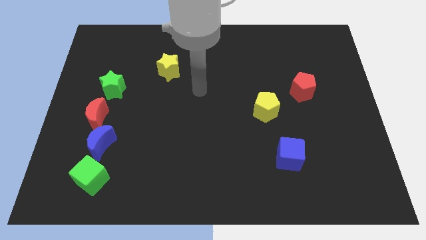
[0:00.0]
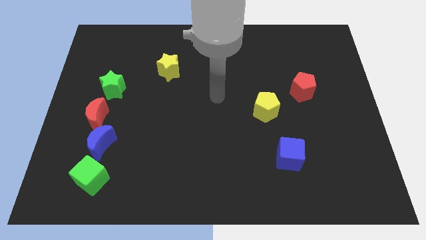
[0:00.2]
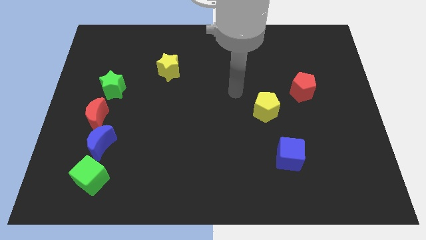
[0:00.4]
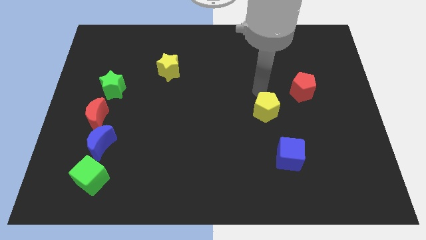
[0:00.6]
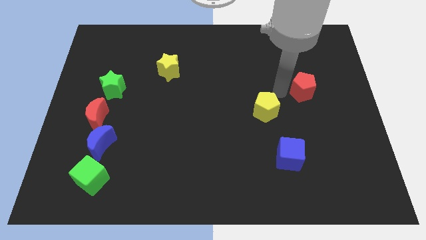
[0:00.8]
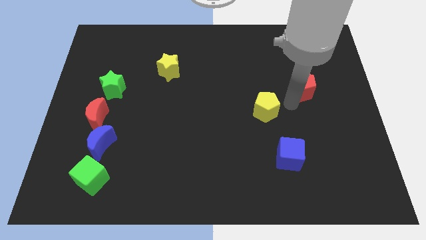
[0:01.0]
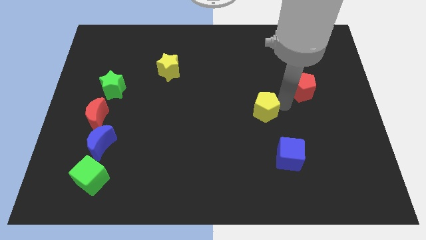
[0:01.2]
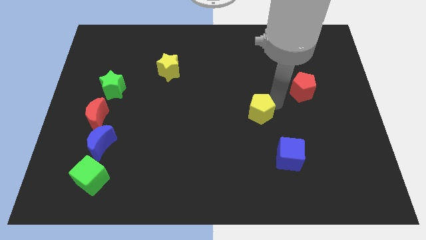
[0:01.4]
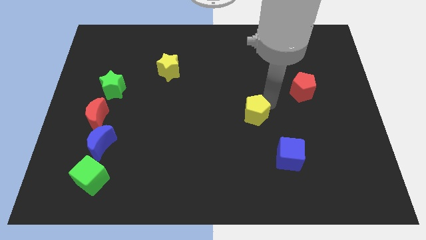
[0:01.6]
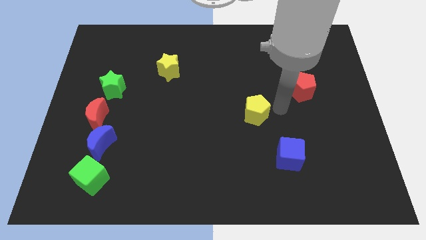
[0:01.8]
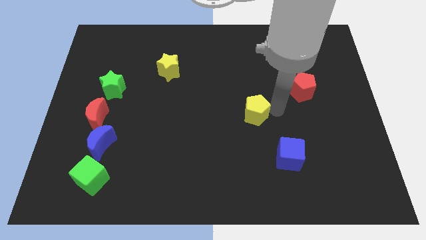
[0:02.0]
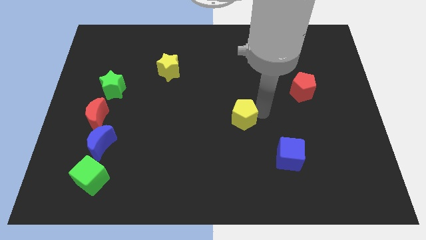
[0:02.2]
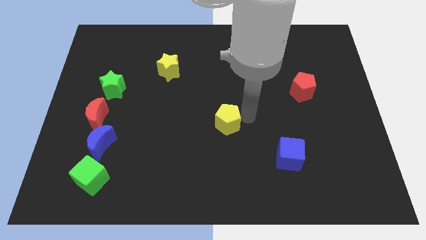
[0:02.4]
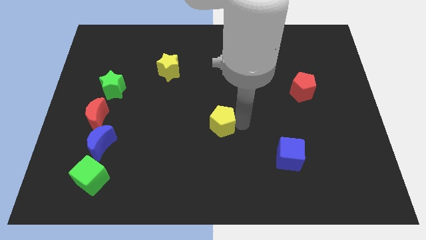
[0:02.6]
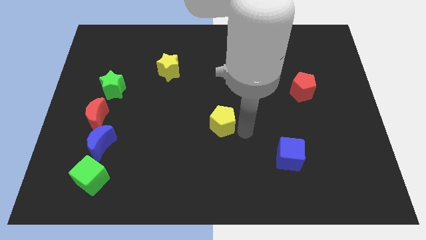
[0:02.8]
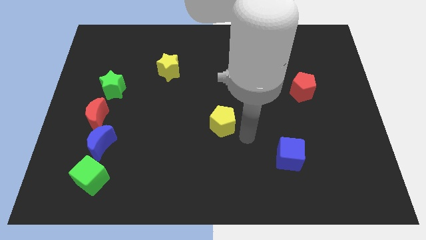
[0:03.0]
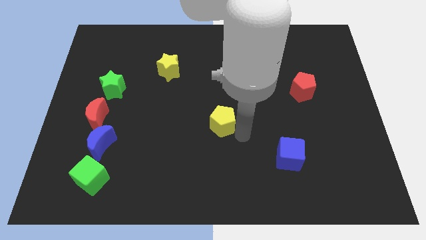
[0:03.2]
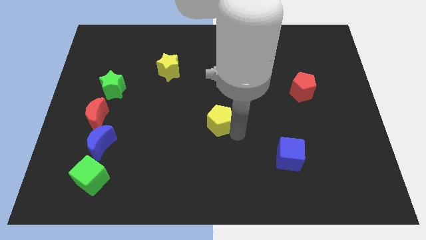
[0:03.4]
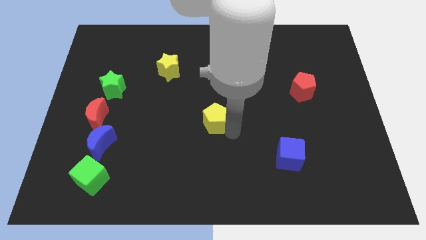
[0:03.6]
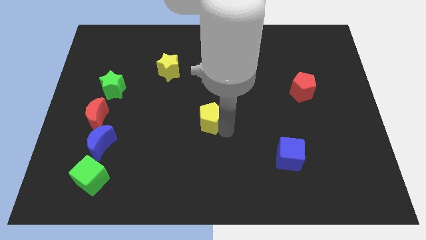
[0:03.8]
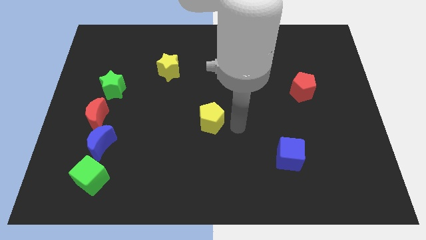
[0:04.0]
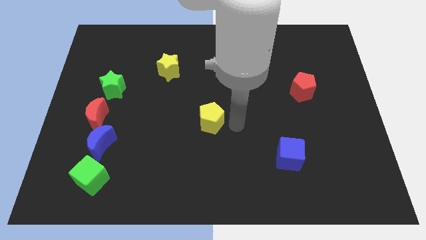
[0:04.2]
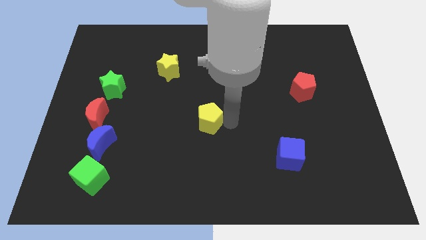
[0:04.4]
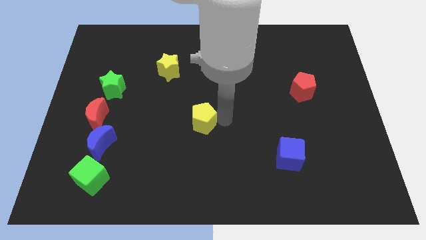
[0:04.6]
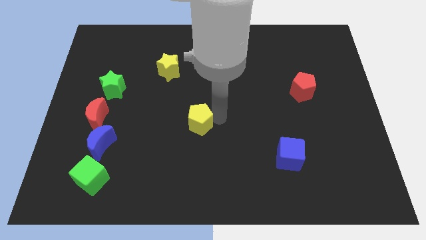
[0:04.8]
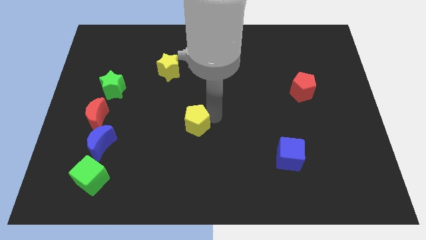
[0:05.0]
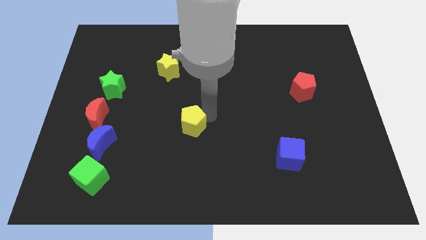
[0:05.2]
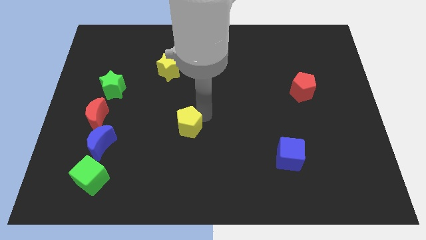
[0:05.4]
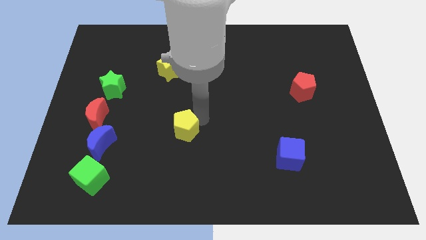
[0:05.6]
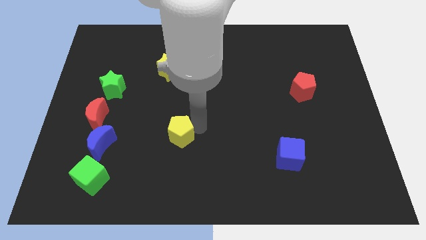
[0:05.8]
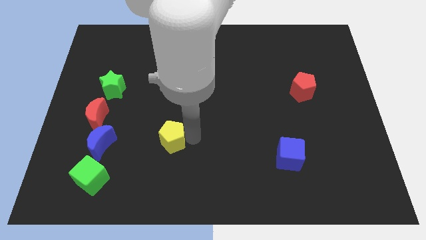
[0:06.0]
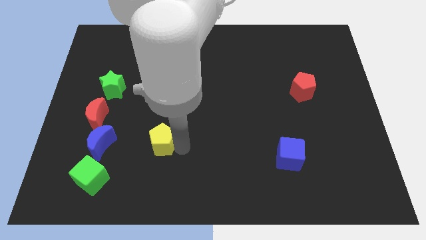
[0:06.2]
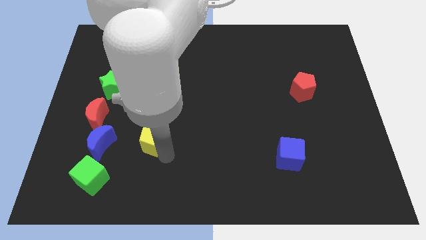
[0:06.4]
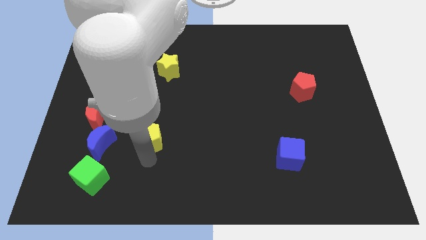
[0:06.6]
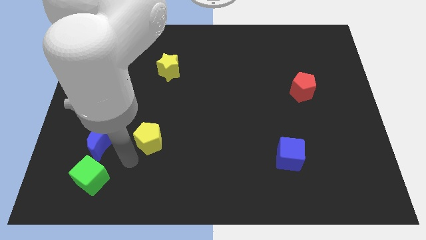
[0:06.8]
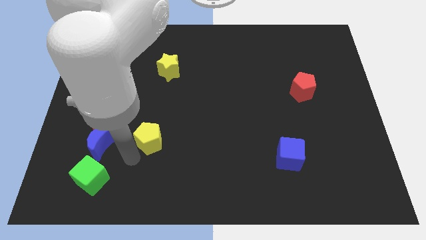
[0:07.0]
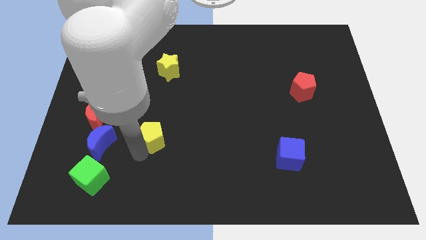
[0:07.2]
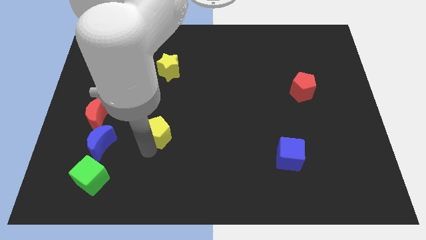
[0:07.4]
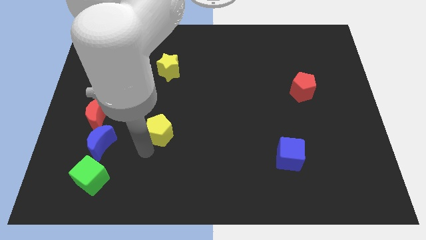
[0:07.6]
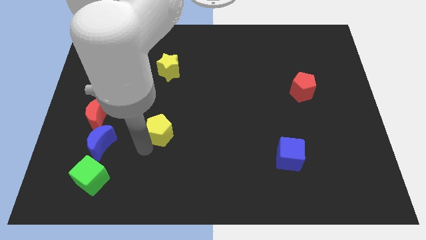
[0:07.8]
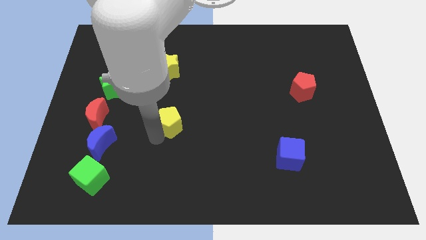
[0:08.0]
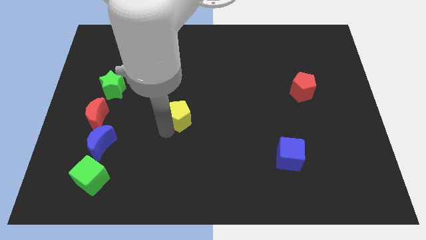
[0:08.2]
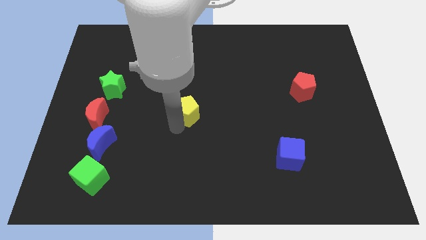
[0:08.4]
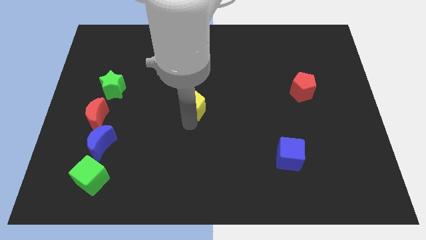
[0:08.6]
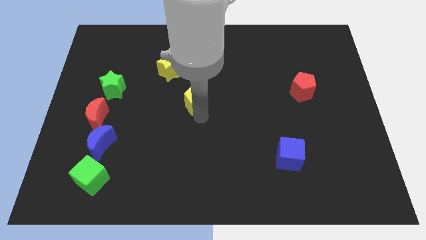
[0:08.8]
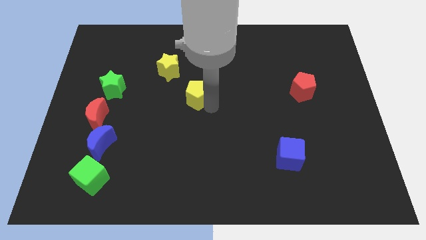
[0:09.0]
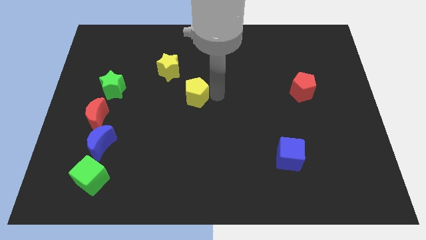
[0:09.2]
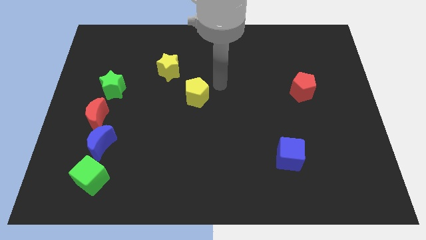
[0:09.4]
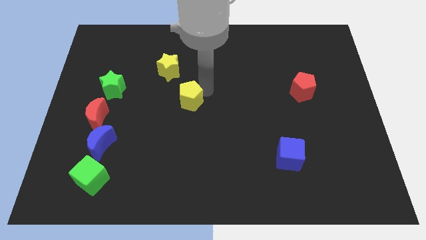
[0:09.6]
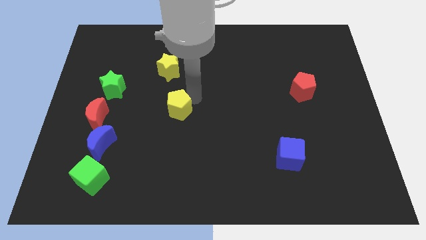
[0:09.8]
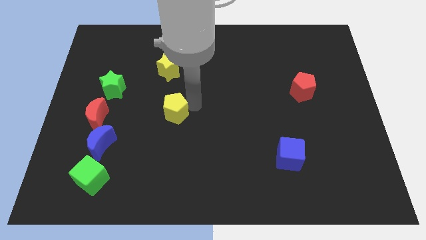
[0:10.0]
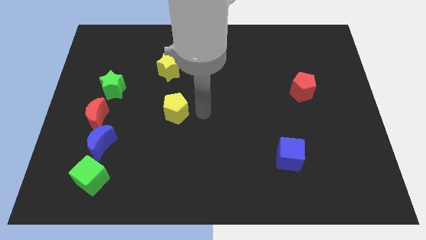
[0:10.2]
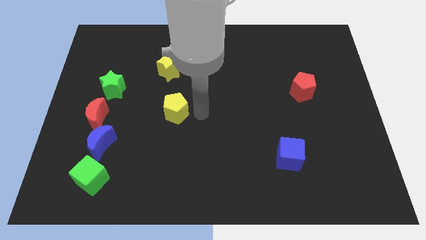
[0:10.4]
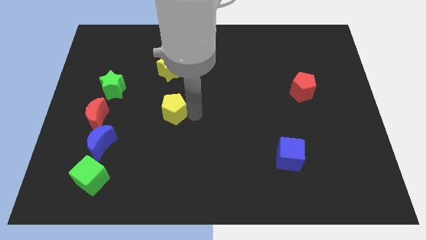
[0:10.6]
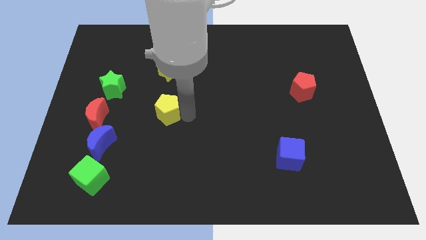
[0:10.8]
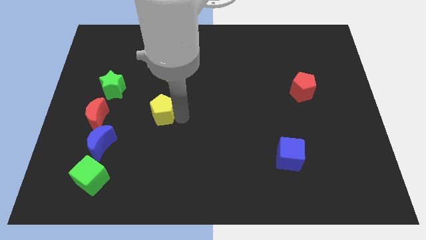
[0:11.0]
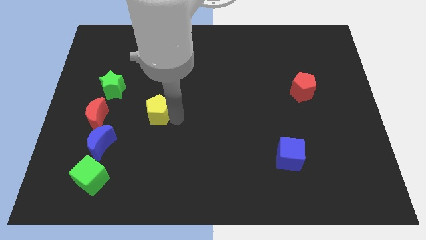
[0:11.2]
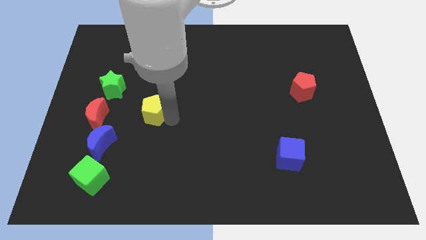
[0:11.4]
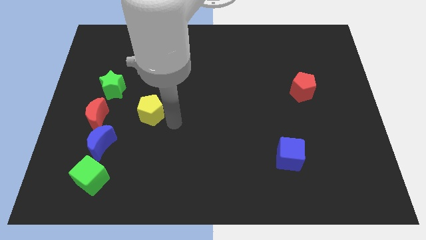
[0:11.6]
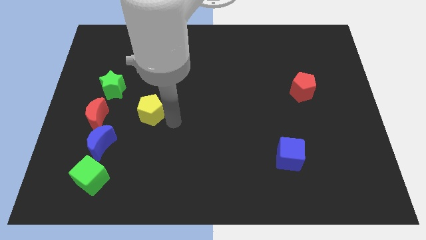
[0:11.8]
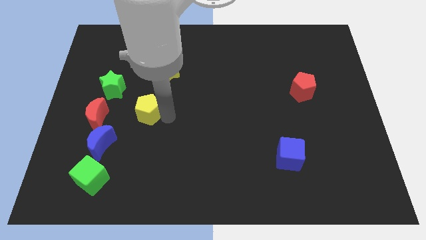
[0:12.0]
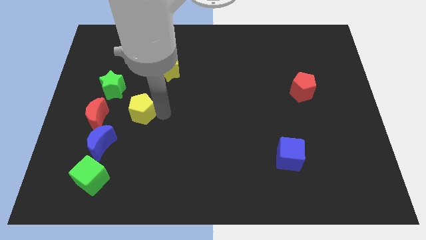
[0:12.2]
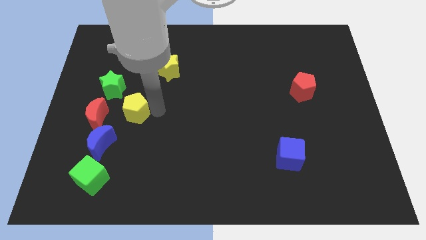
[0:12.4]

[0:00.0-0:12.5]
put the yellow pentagon diagonally up and to the right of the red moon
